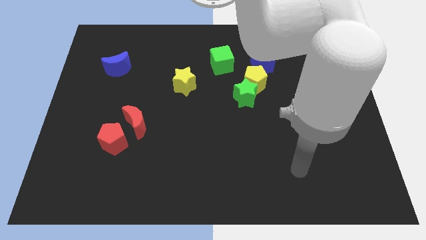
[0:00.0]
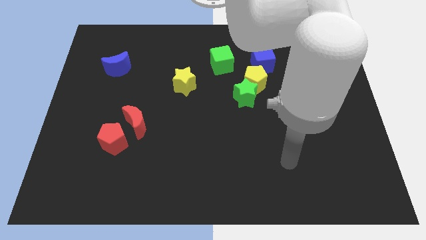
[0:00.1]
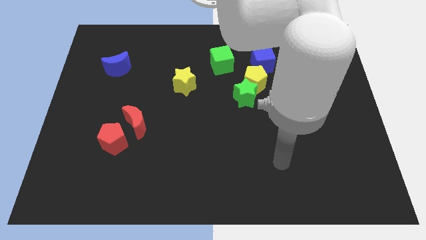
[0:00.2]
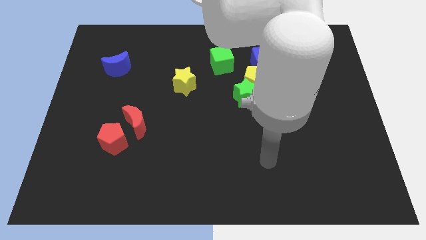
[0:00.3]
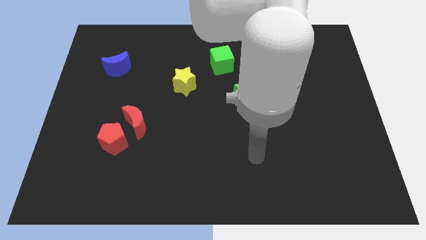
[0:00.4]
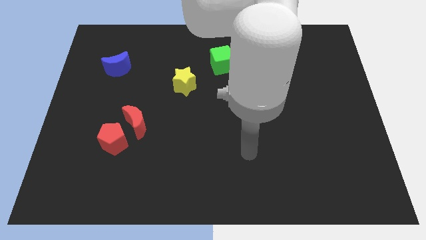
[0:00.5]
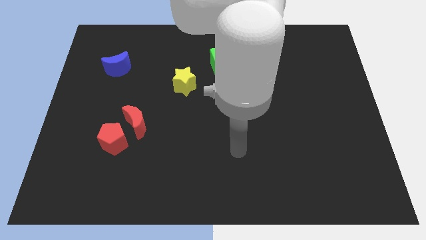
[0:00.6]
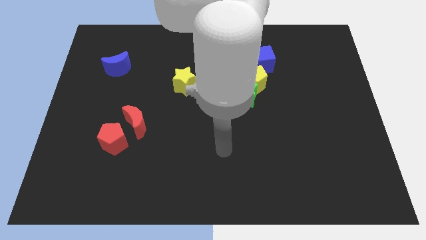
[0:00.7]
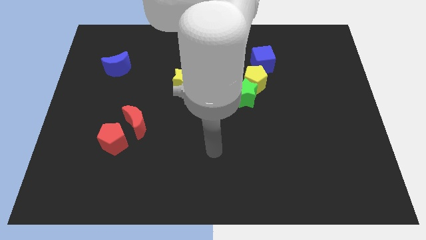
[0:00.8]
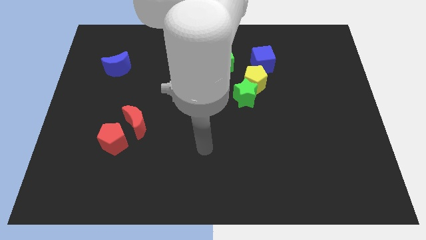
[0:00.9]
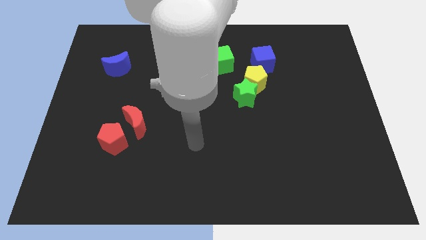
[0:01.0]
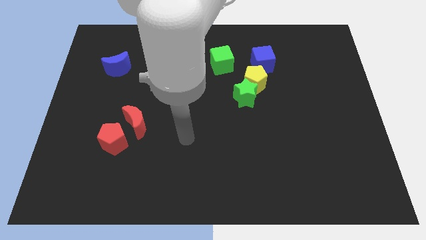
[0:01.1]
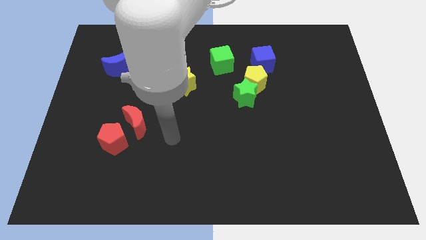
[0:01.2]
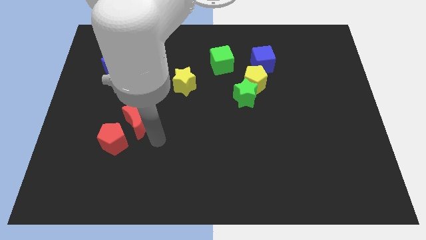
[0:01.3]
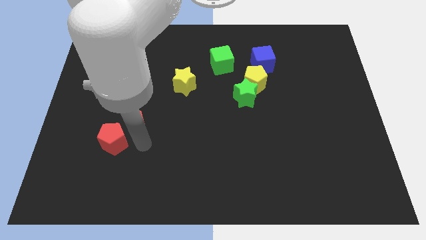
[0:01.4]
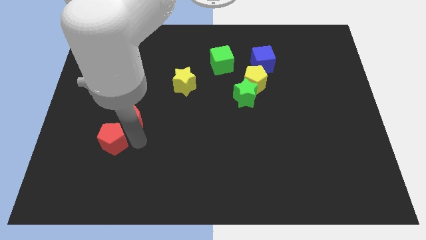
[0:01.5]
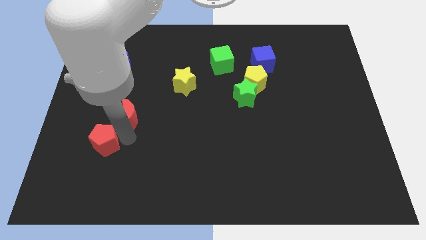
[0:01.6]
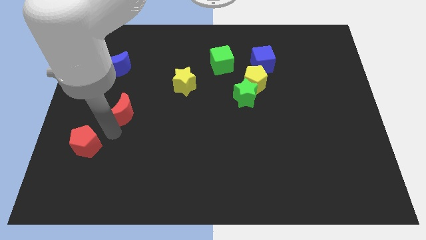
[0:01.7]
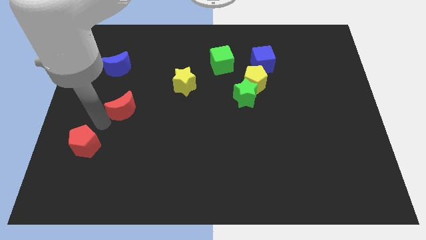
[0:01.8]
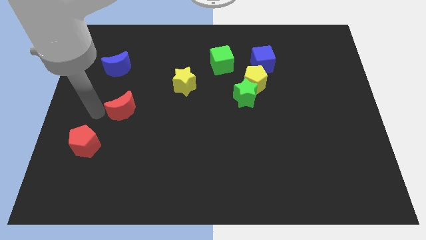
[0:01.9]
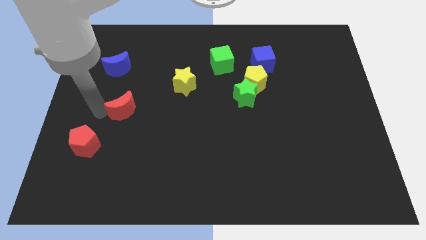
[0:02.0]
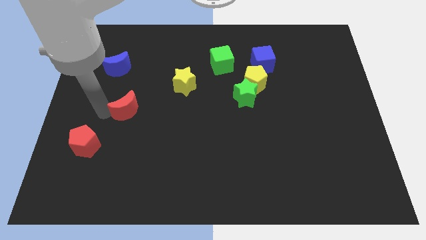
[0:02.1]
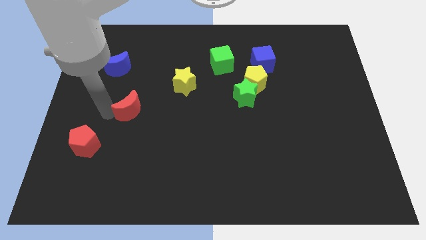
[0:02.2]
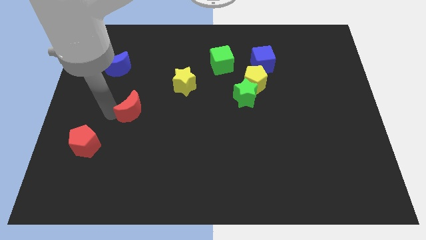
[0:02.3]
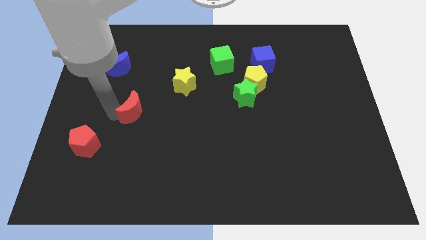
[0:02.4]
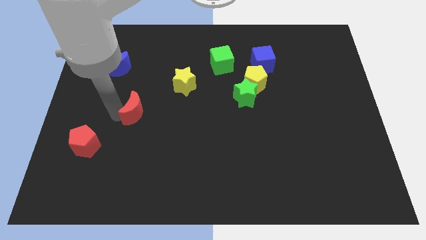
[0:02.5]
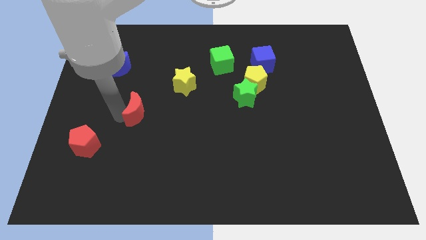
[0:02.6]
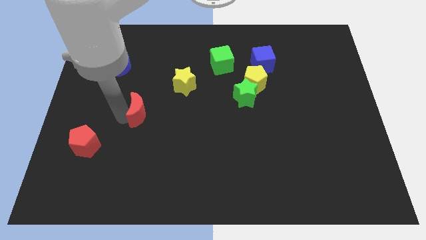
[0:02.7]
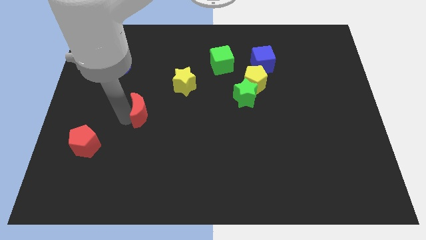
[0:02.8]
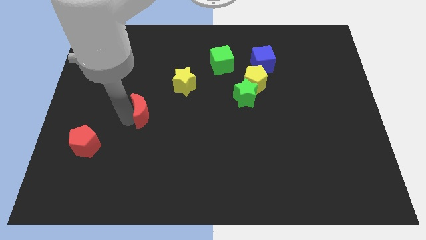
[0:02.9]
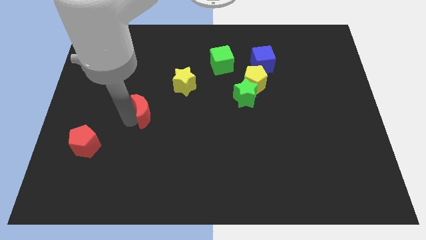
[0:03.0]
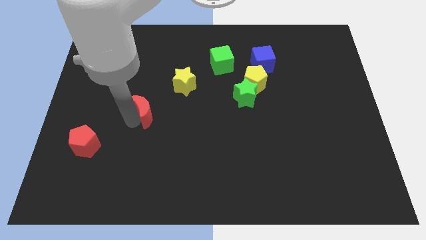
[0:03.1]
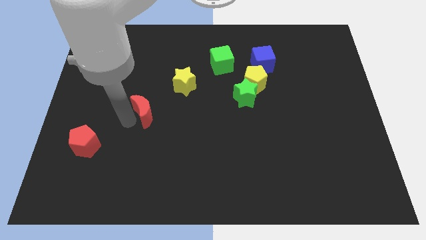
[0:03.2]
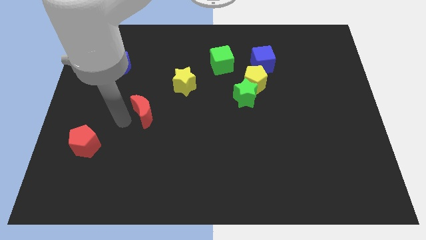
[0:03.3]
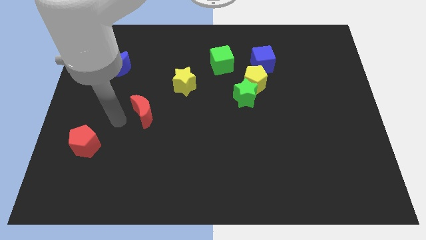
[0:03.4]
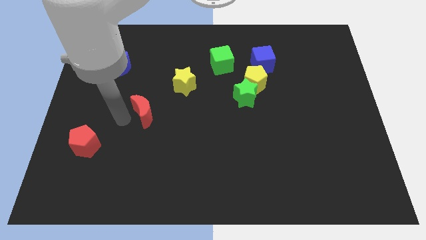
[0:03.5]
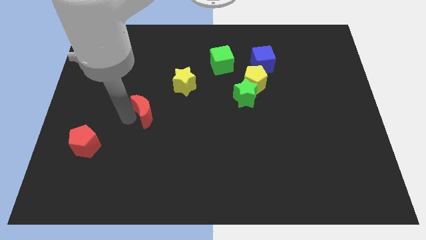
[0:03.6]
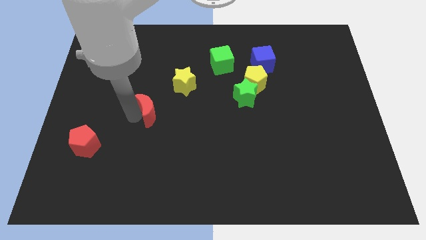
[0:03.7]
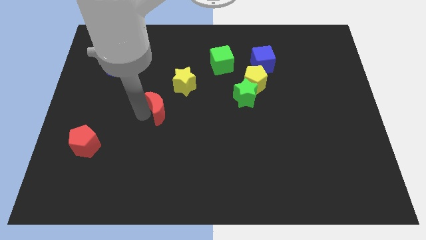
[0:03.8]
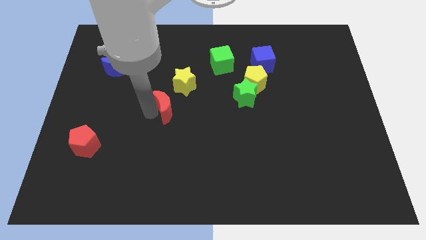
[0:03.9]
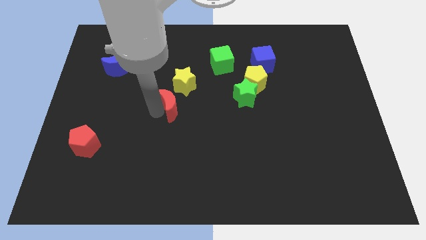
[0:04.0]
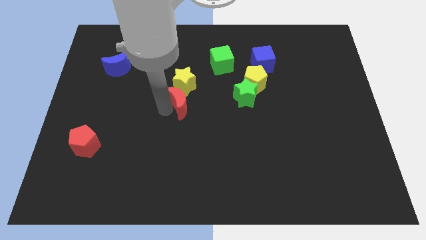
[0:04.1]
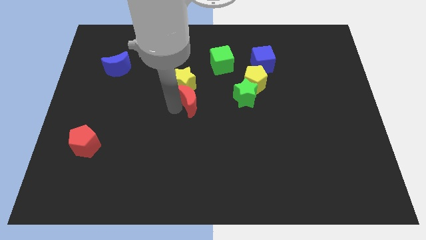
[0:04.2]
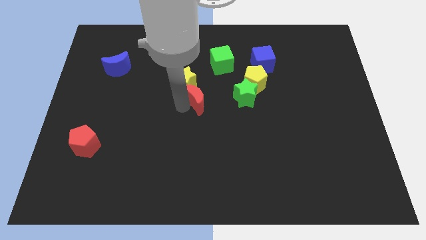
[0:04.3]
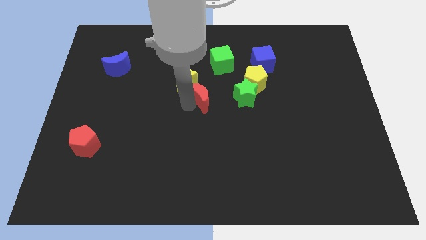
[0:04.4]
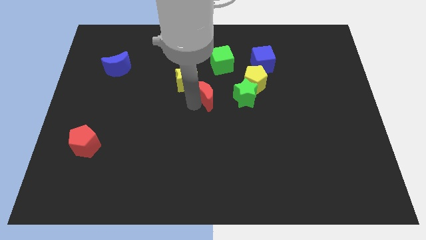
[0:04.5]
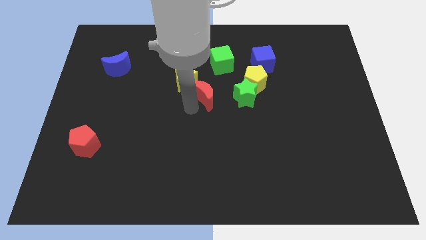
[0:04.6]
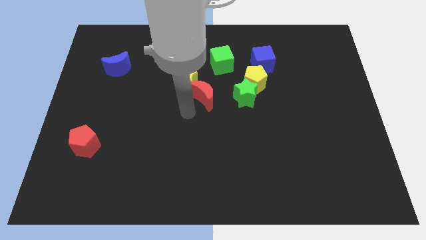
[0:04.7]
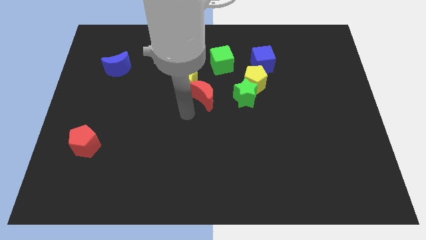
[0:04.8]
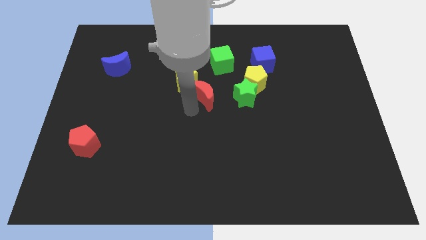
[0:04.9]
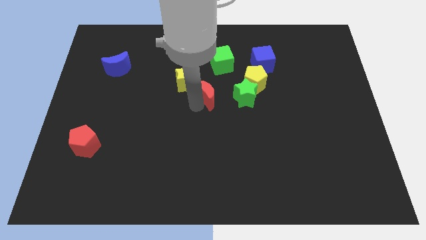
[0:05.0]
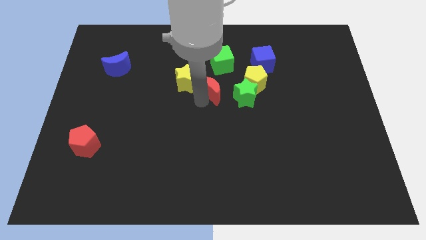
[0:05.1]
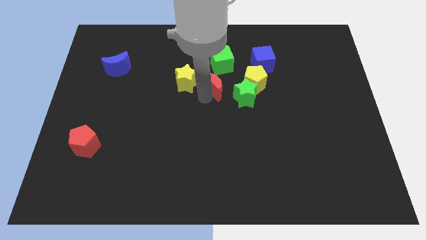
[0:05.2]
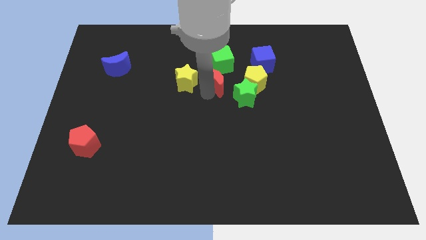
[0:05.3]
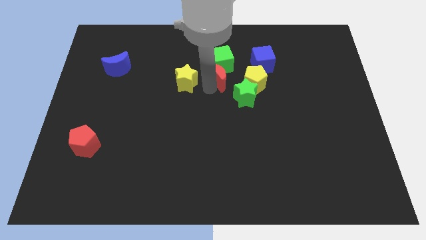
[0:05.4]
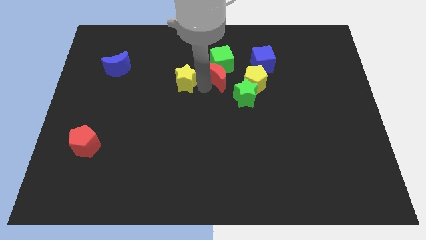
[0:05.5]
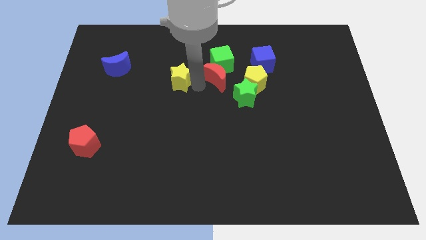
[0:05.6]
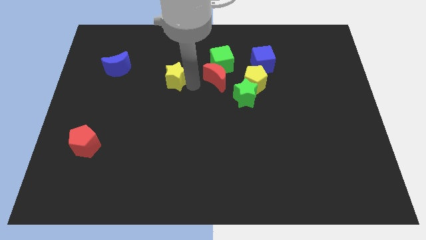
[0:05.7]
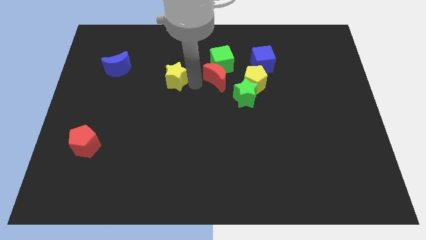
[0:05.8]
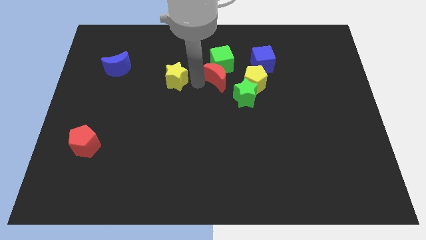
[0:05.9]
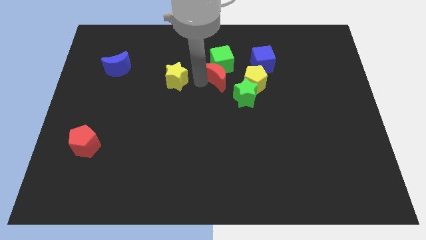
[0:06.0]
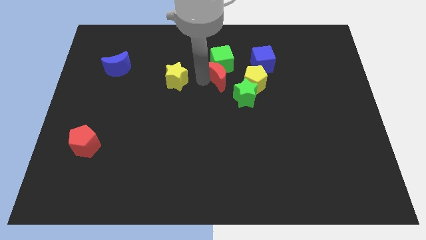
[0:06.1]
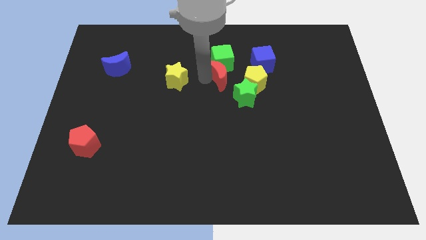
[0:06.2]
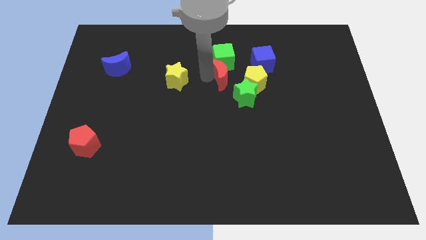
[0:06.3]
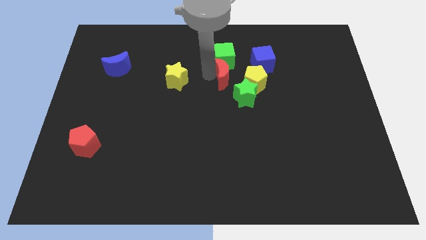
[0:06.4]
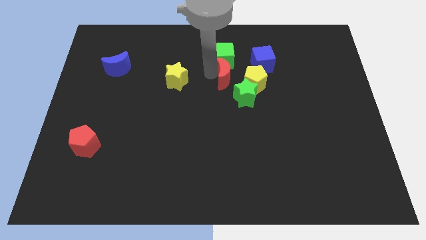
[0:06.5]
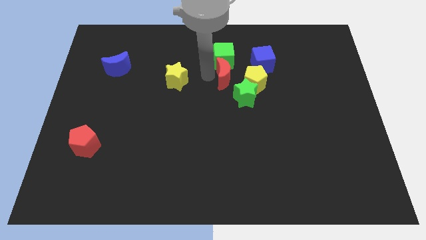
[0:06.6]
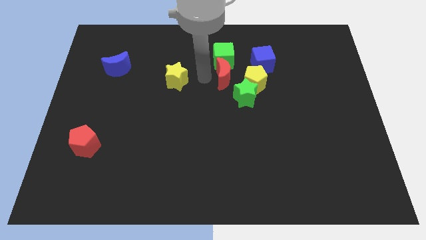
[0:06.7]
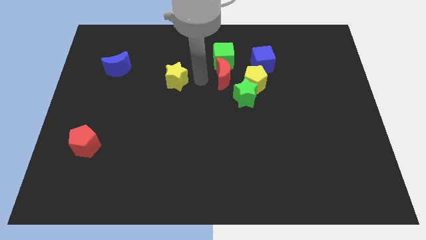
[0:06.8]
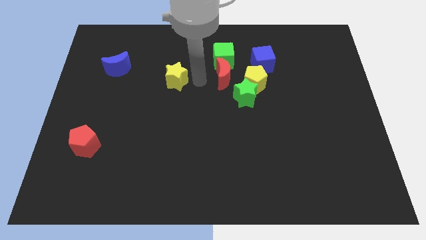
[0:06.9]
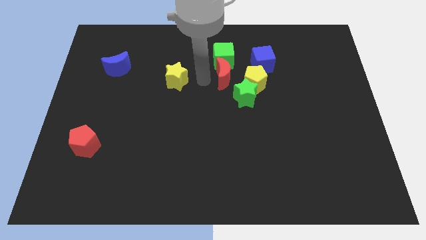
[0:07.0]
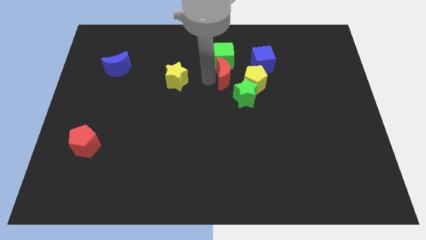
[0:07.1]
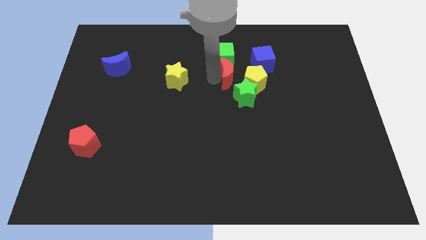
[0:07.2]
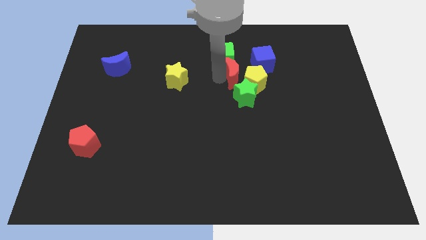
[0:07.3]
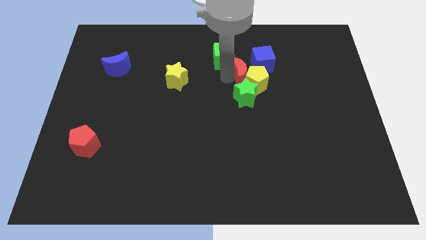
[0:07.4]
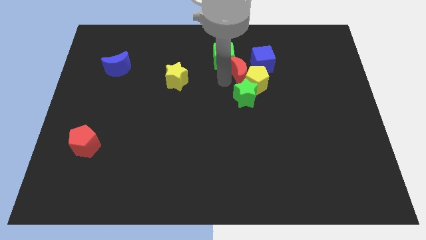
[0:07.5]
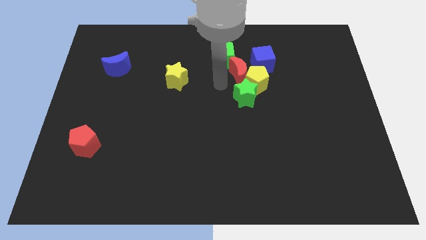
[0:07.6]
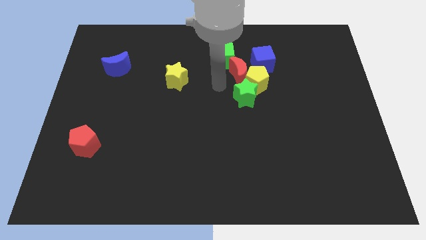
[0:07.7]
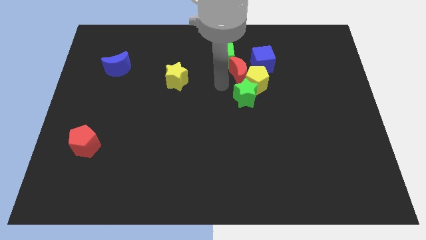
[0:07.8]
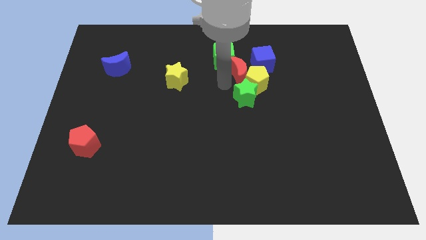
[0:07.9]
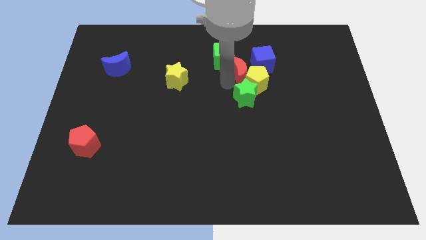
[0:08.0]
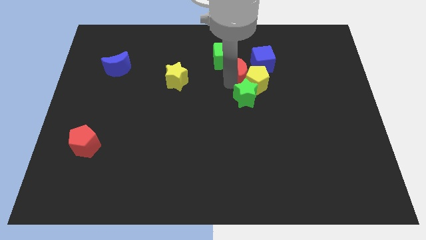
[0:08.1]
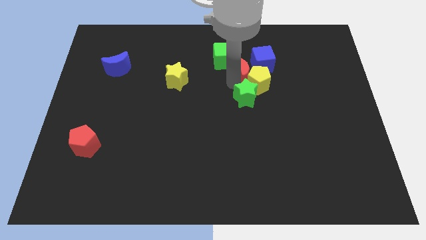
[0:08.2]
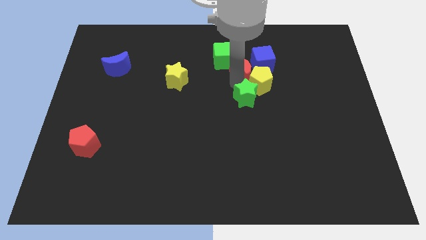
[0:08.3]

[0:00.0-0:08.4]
put the red moon next to the blue cube
